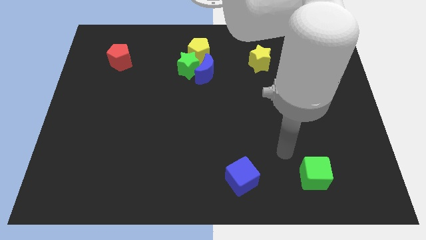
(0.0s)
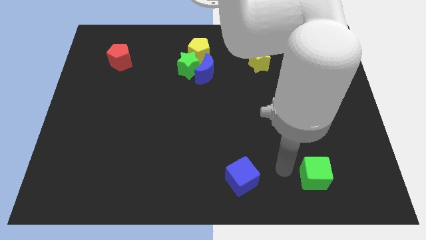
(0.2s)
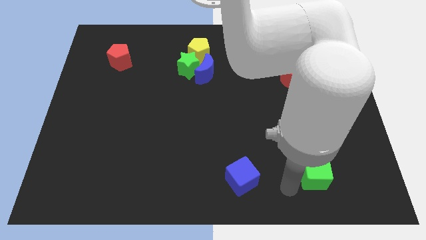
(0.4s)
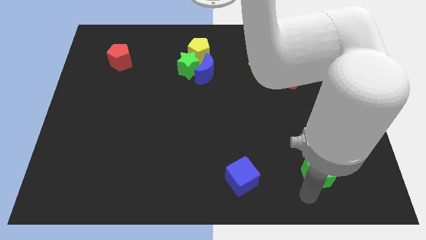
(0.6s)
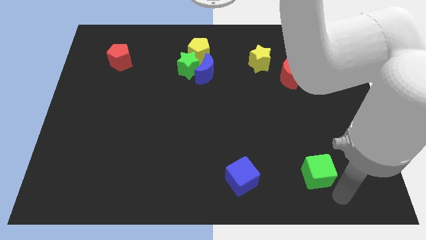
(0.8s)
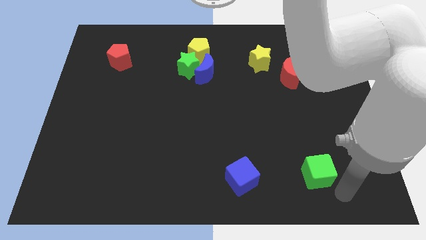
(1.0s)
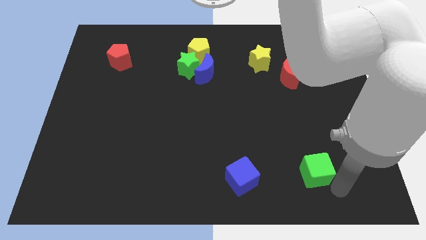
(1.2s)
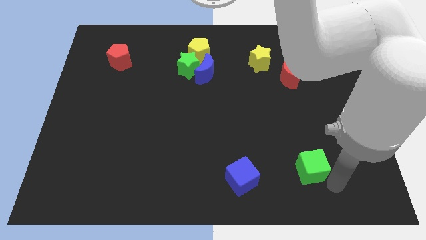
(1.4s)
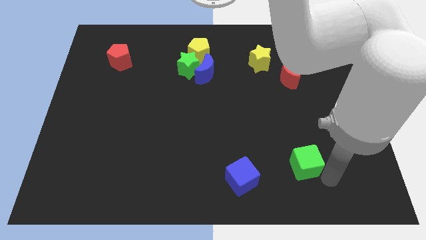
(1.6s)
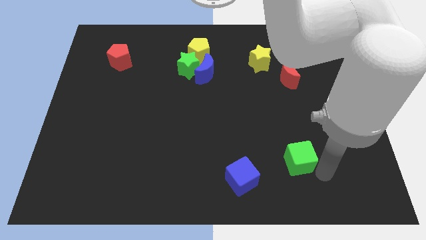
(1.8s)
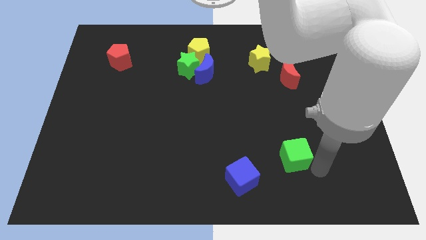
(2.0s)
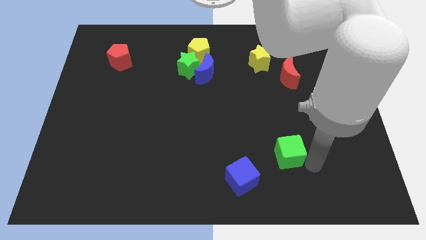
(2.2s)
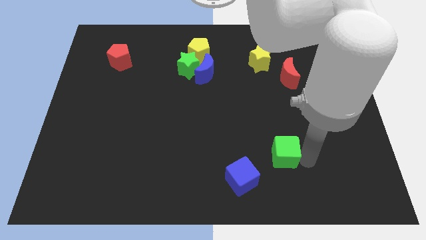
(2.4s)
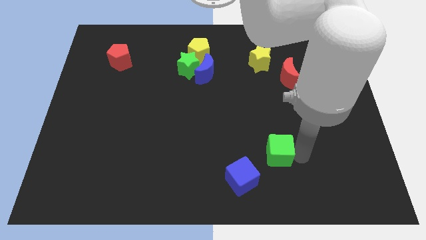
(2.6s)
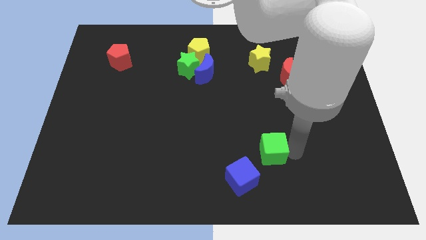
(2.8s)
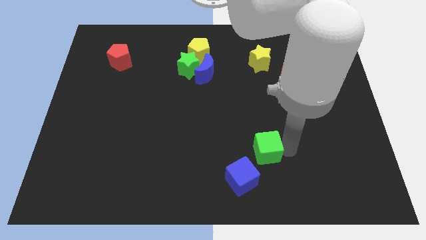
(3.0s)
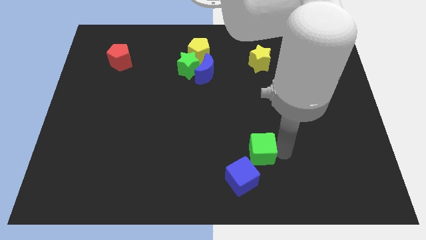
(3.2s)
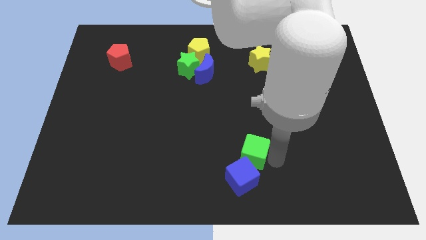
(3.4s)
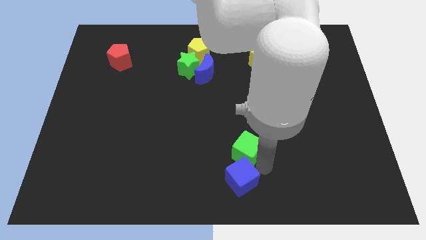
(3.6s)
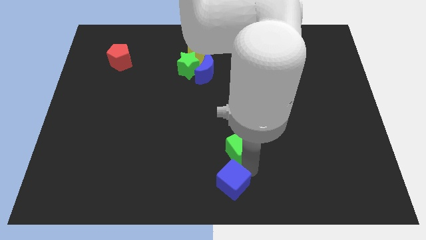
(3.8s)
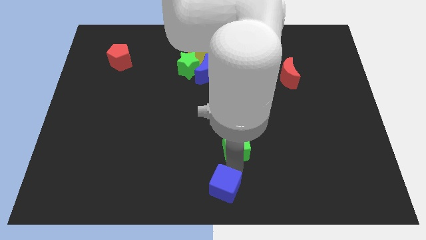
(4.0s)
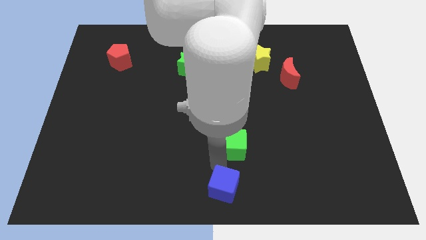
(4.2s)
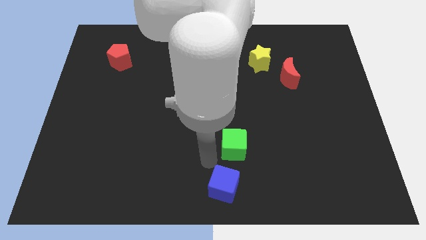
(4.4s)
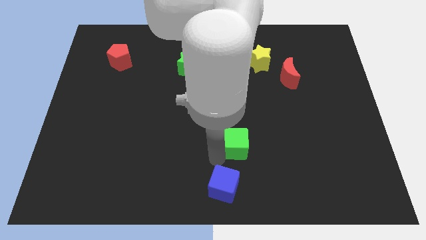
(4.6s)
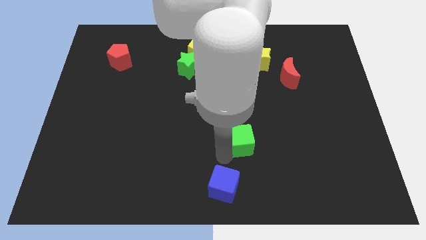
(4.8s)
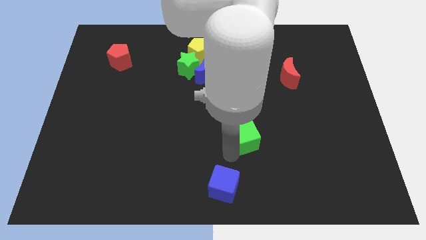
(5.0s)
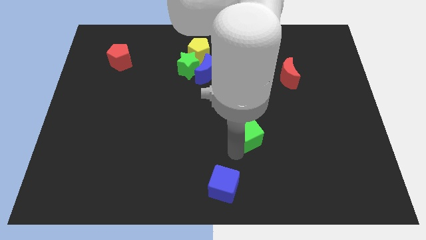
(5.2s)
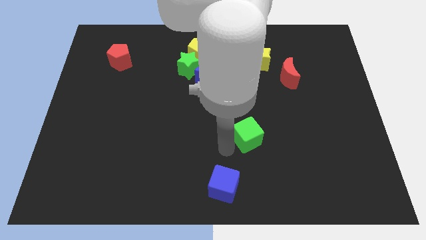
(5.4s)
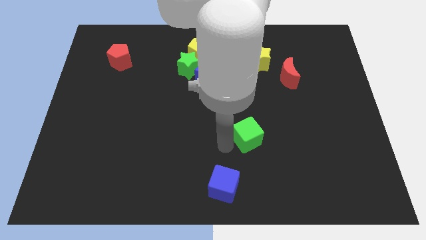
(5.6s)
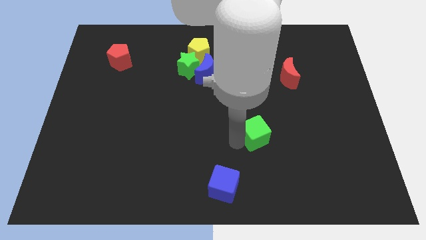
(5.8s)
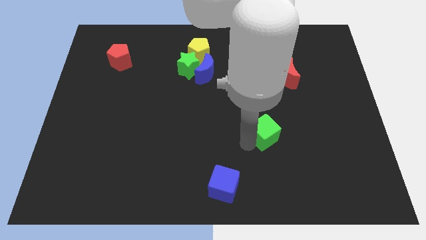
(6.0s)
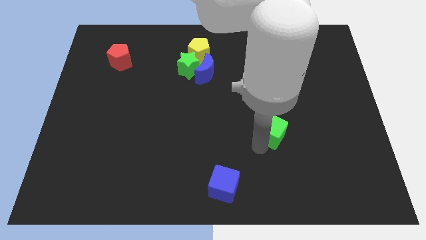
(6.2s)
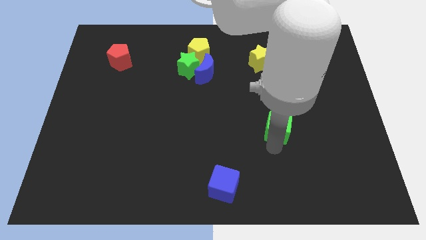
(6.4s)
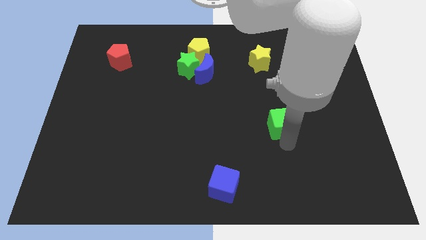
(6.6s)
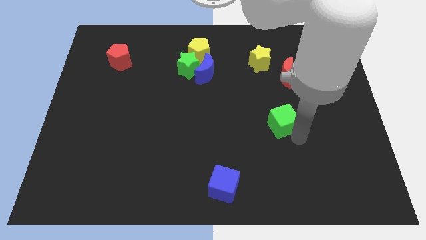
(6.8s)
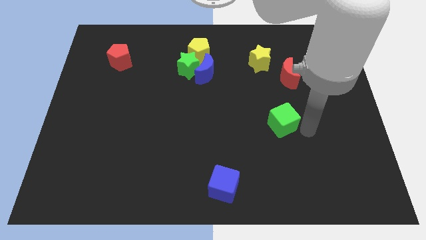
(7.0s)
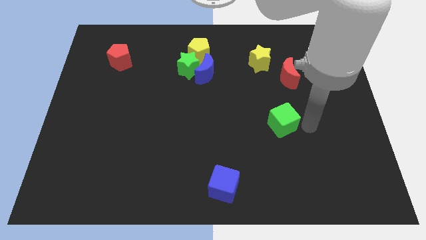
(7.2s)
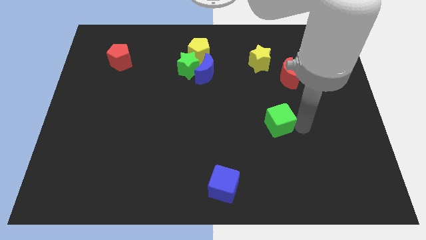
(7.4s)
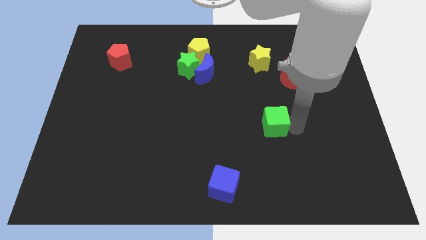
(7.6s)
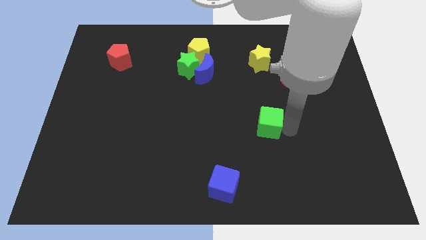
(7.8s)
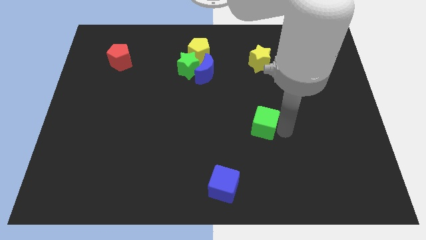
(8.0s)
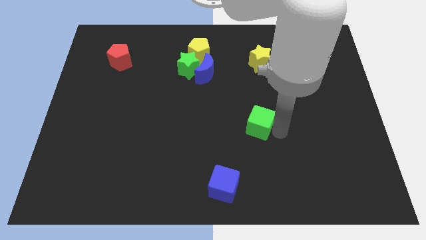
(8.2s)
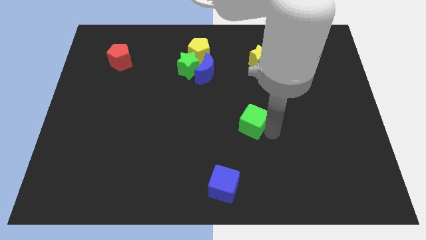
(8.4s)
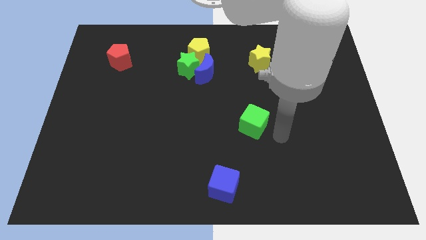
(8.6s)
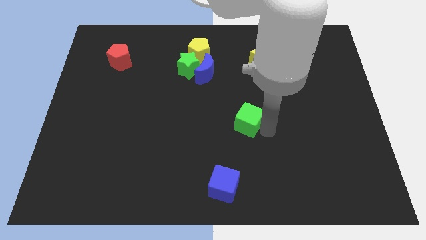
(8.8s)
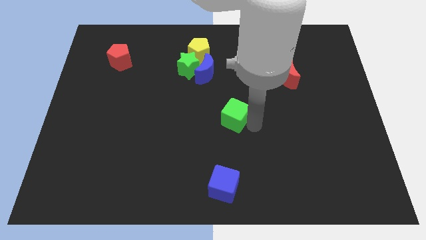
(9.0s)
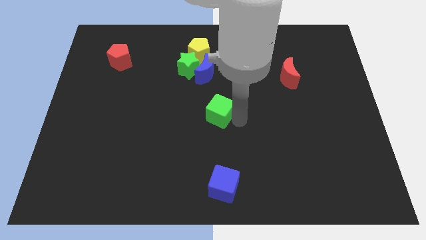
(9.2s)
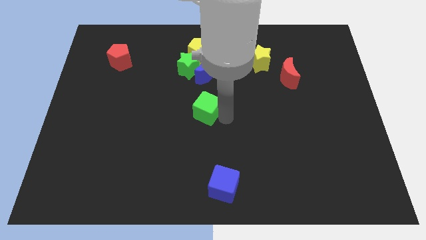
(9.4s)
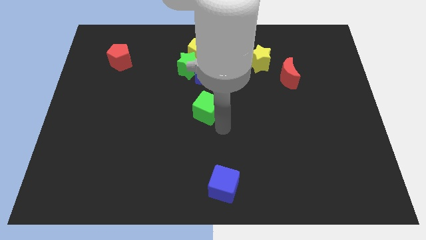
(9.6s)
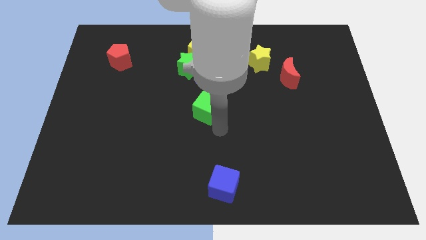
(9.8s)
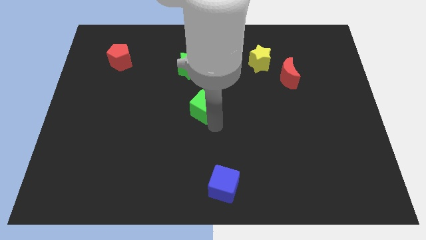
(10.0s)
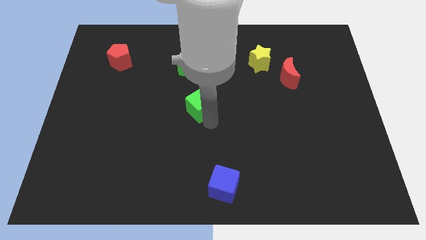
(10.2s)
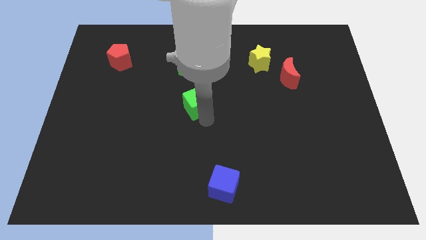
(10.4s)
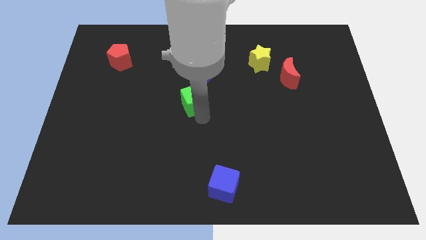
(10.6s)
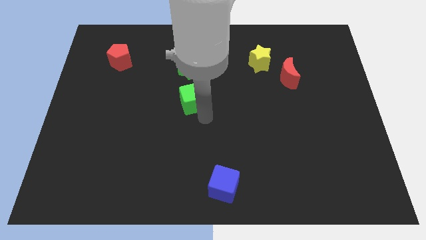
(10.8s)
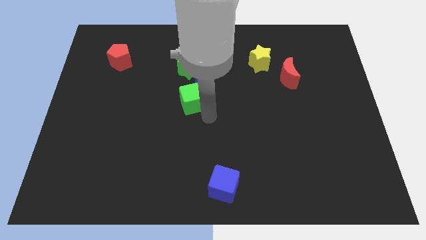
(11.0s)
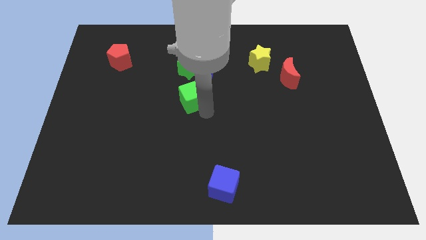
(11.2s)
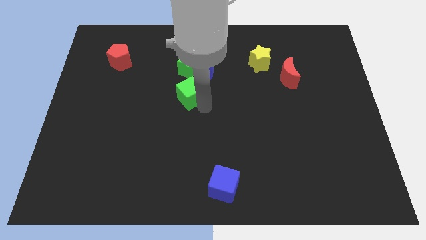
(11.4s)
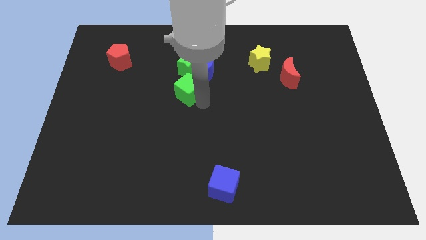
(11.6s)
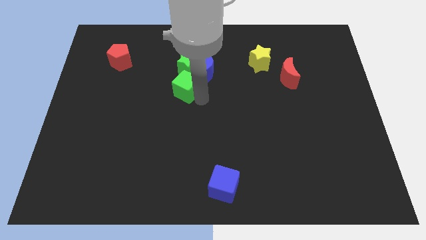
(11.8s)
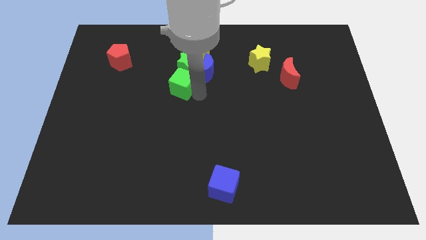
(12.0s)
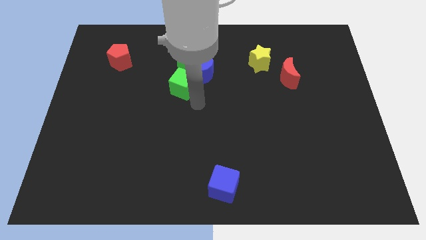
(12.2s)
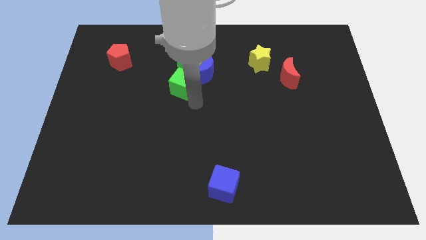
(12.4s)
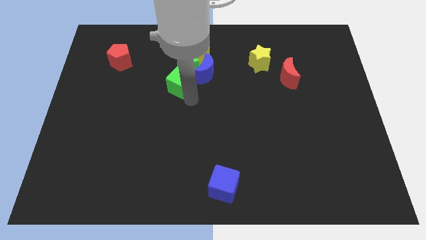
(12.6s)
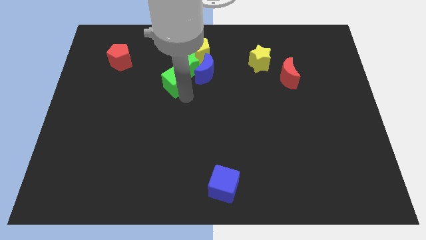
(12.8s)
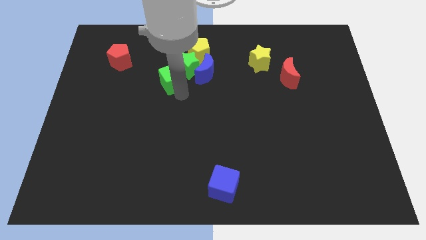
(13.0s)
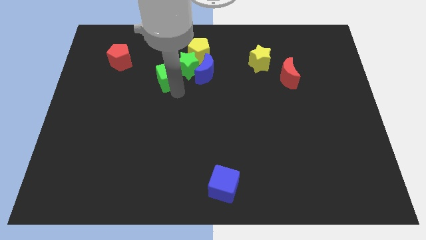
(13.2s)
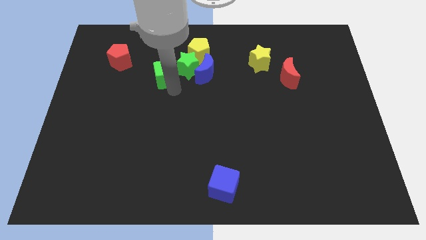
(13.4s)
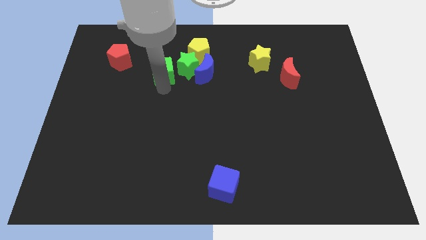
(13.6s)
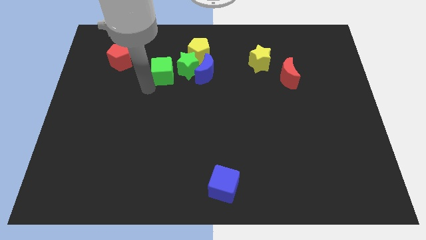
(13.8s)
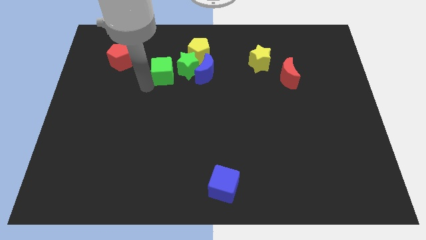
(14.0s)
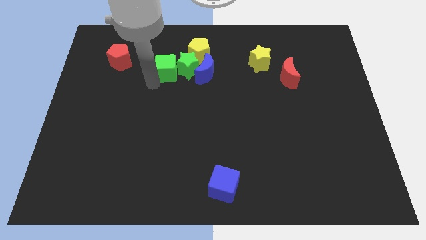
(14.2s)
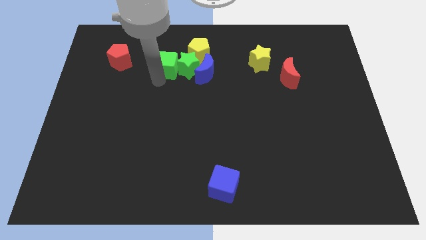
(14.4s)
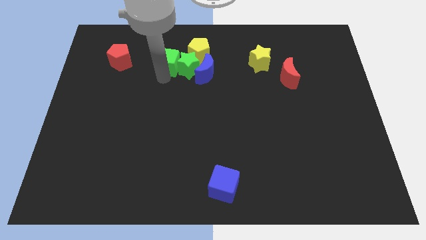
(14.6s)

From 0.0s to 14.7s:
move the green cube diagonally up and to the left of the blue moon
